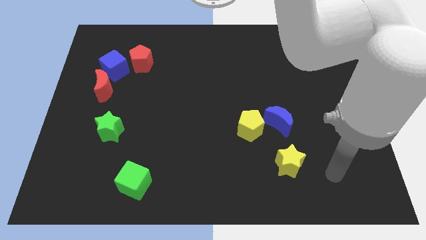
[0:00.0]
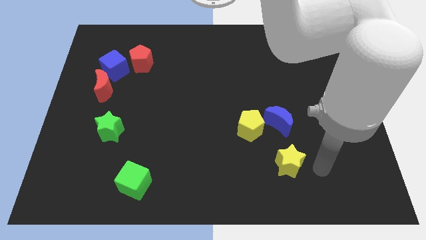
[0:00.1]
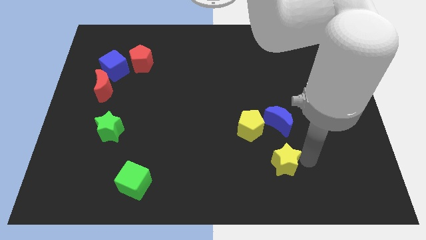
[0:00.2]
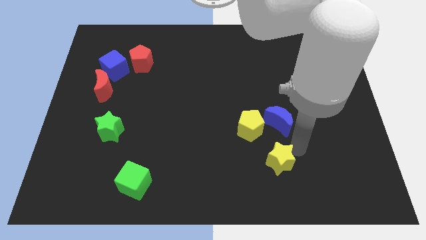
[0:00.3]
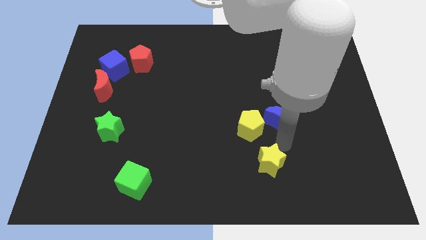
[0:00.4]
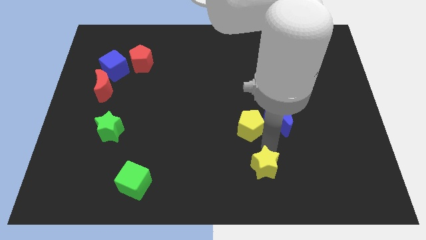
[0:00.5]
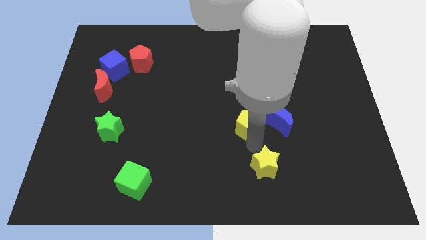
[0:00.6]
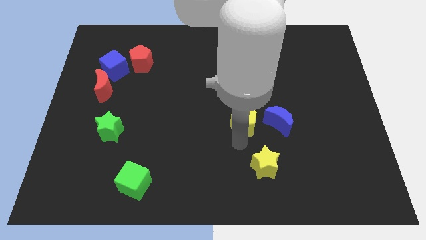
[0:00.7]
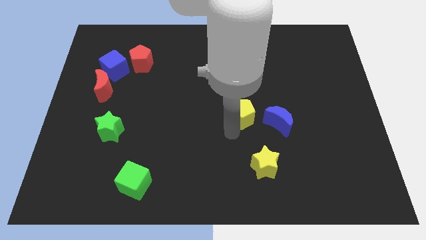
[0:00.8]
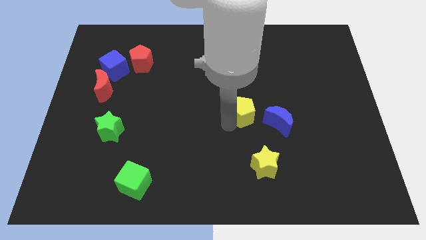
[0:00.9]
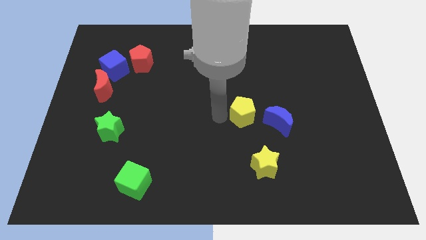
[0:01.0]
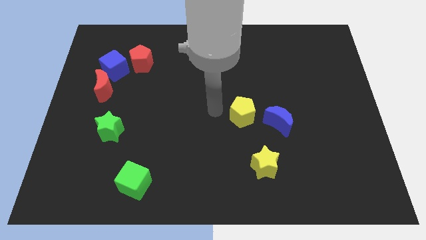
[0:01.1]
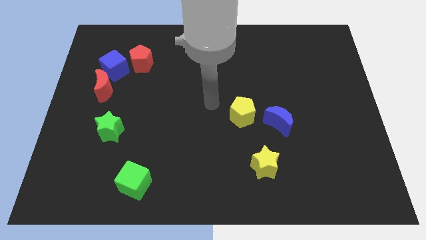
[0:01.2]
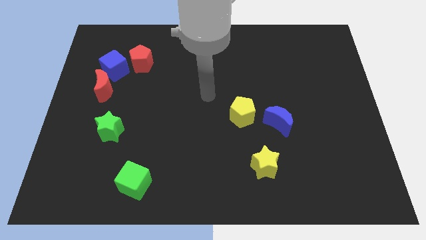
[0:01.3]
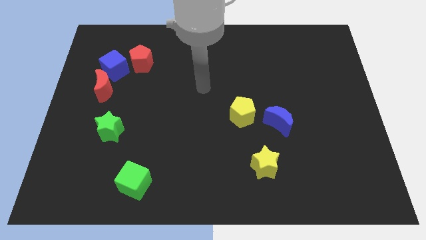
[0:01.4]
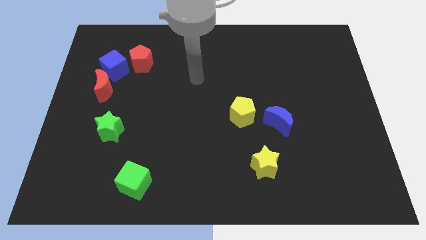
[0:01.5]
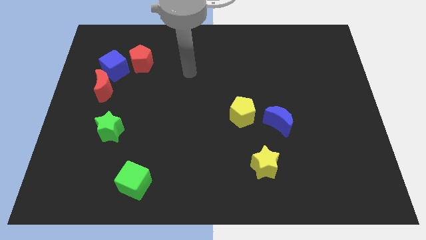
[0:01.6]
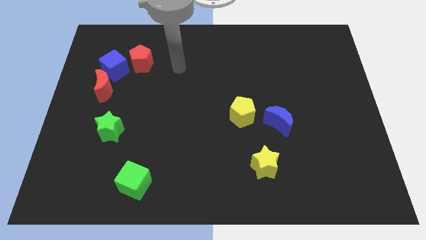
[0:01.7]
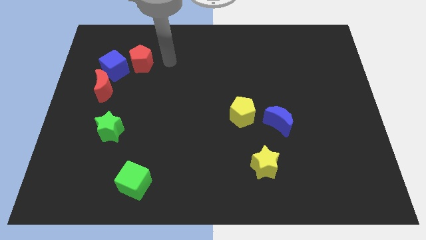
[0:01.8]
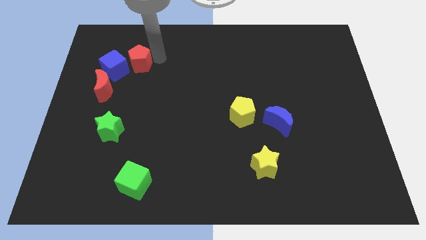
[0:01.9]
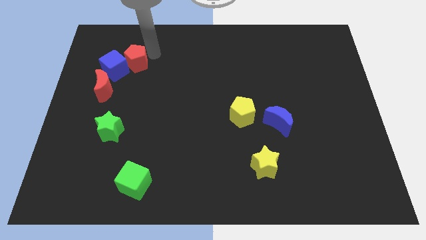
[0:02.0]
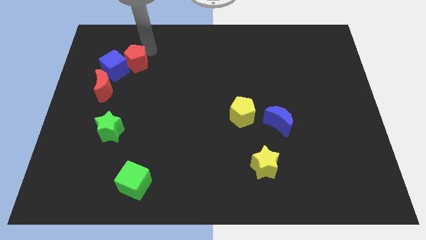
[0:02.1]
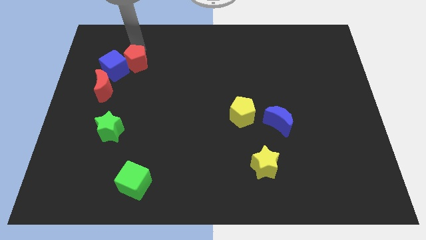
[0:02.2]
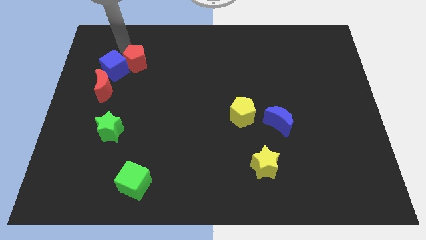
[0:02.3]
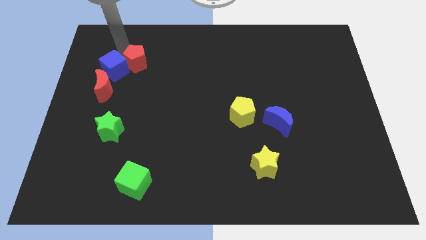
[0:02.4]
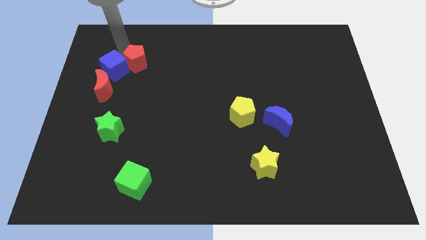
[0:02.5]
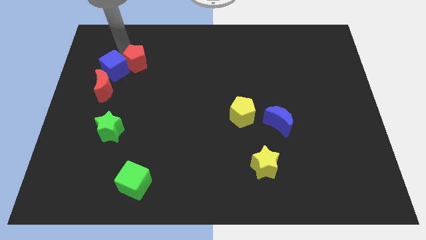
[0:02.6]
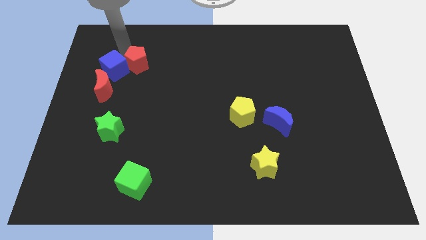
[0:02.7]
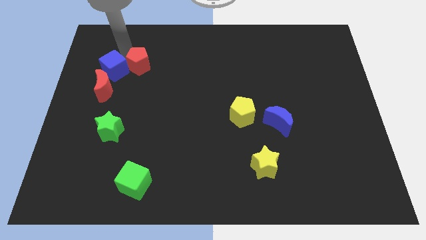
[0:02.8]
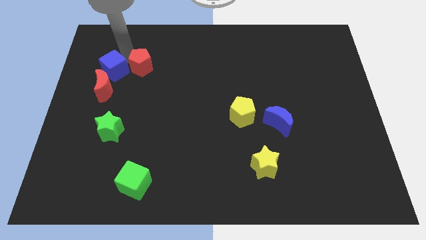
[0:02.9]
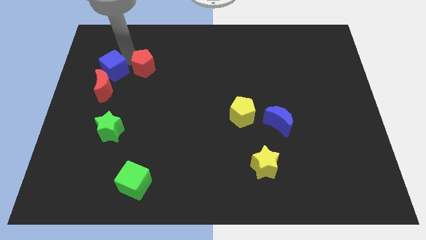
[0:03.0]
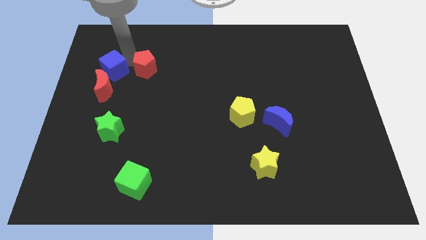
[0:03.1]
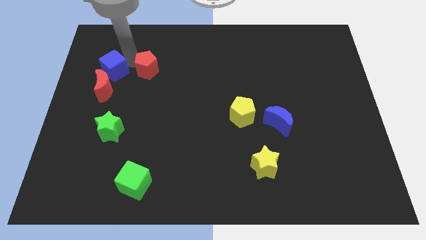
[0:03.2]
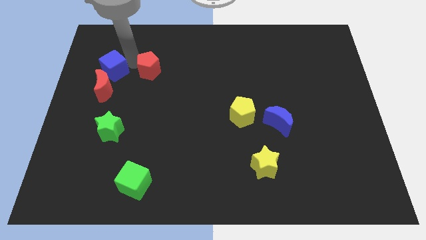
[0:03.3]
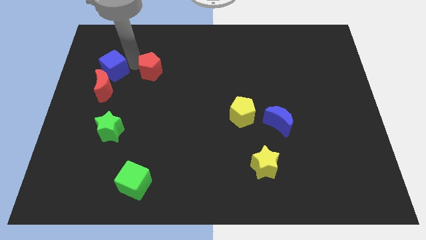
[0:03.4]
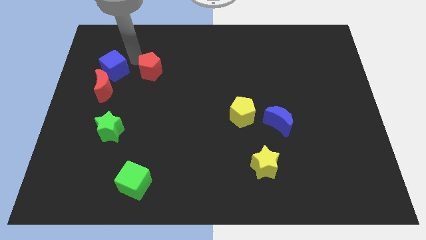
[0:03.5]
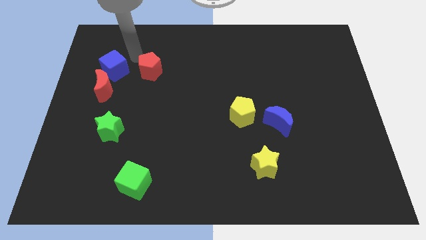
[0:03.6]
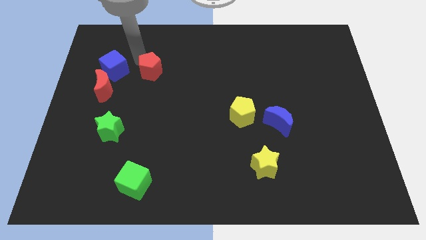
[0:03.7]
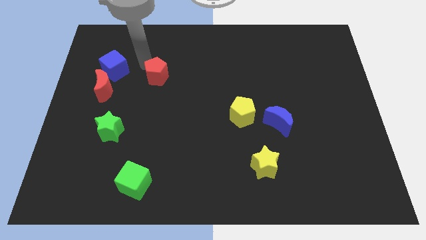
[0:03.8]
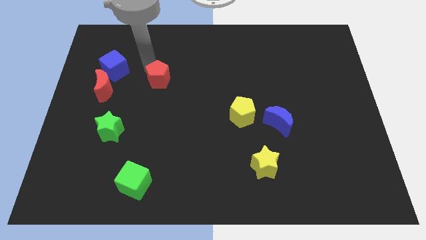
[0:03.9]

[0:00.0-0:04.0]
slightly move the red pentagon downwards and to the right diagonally

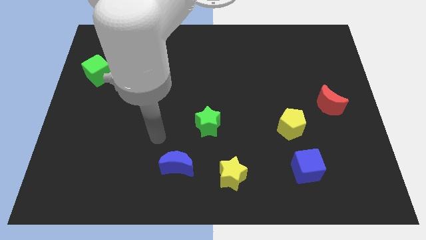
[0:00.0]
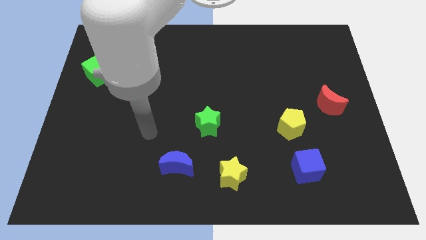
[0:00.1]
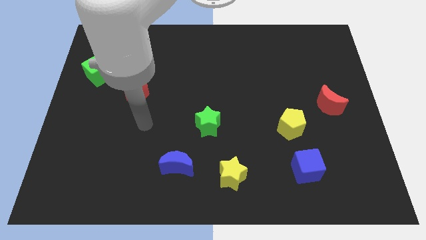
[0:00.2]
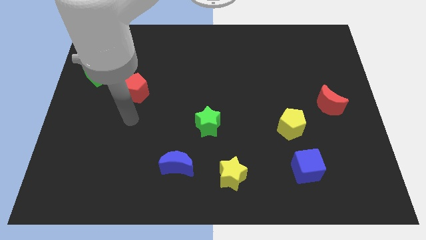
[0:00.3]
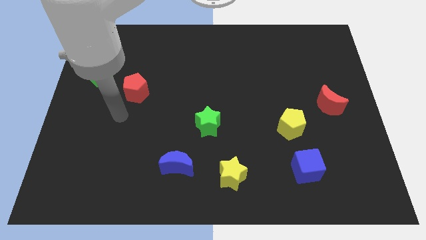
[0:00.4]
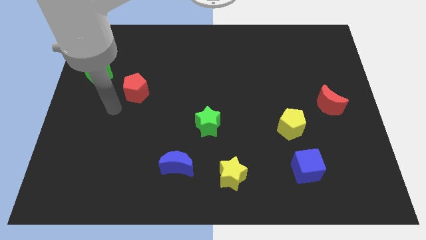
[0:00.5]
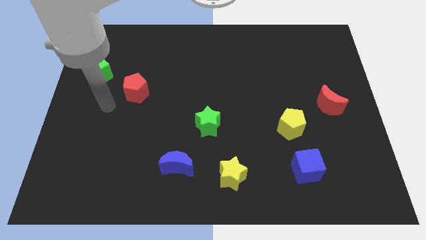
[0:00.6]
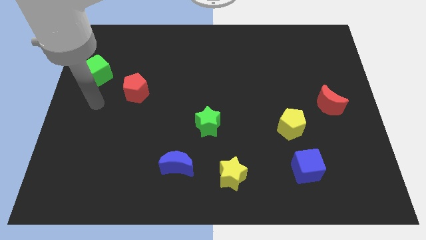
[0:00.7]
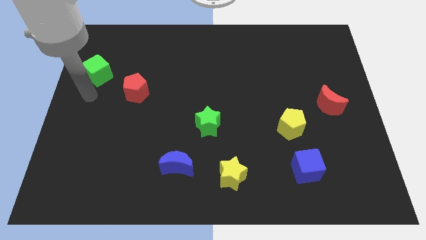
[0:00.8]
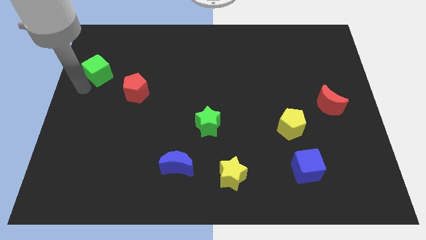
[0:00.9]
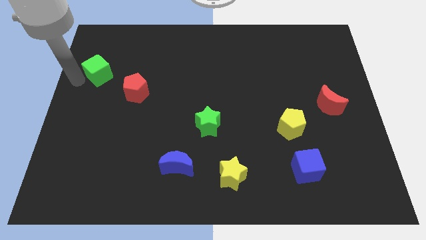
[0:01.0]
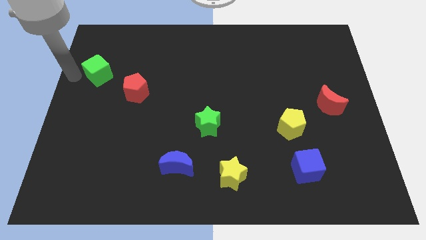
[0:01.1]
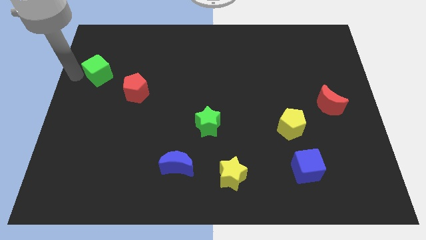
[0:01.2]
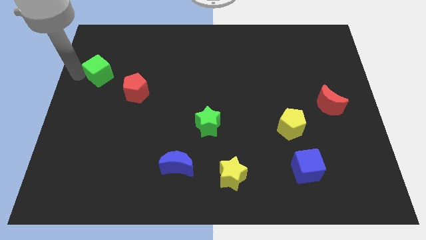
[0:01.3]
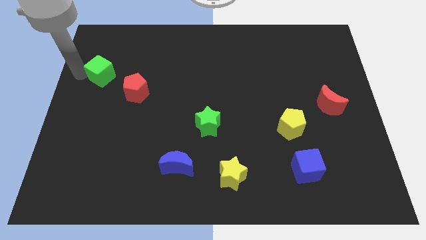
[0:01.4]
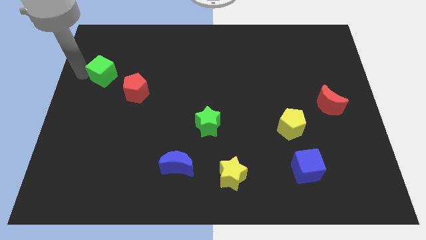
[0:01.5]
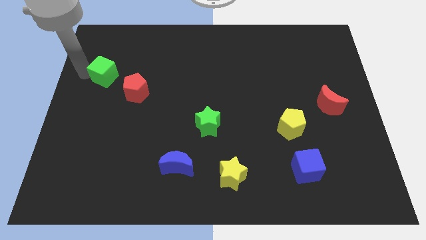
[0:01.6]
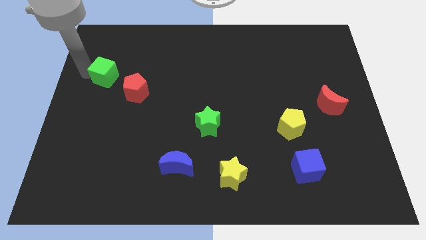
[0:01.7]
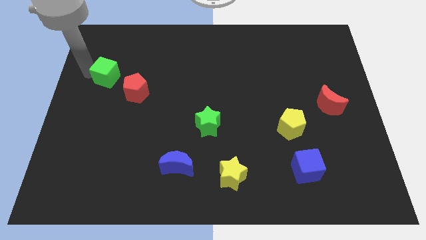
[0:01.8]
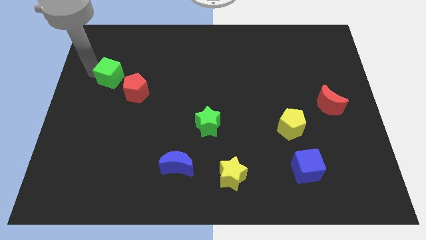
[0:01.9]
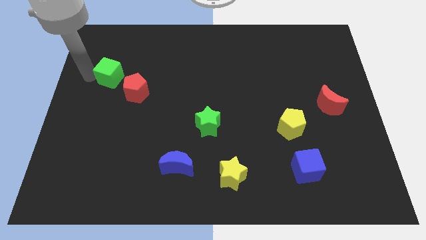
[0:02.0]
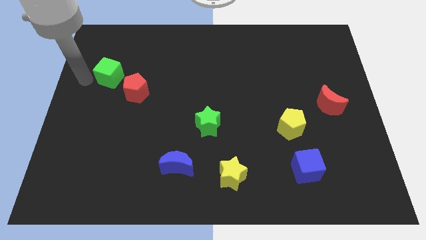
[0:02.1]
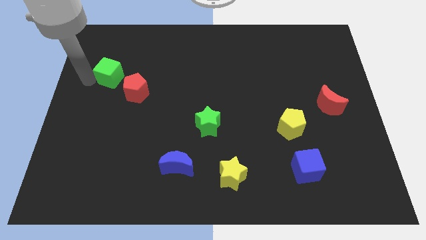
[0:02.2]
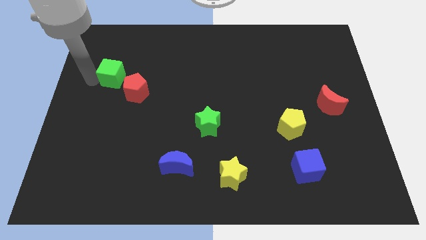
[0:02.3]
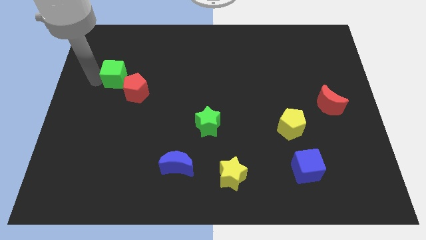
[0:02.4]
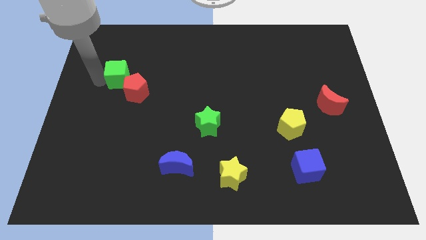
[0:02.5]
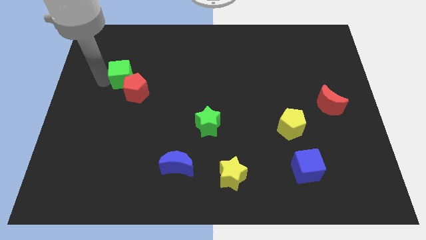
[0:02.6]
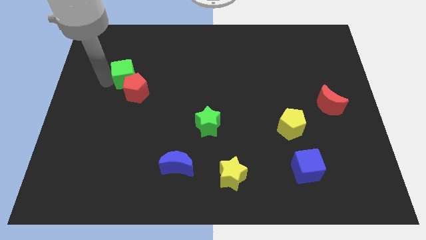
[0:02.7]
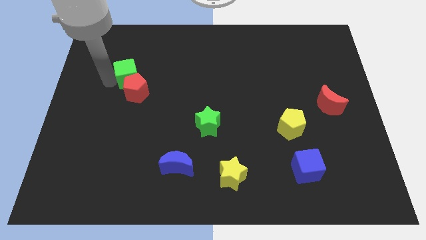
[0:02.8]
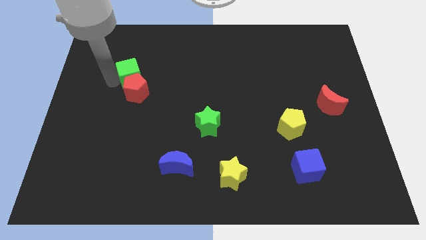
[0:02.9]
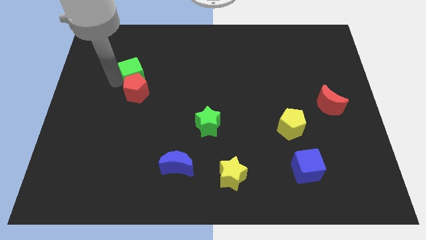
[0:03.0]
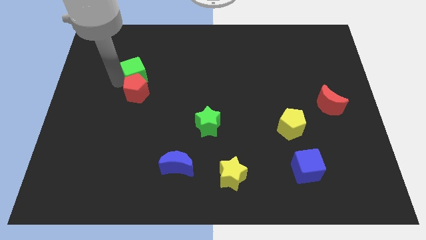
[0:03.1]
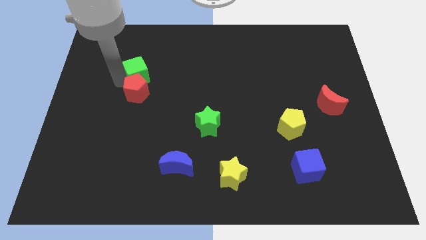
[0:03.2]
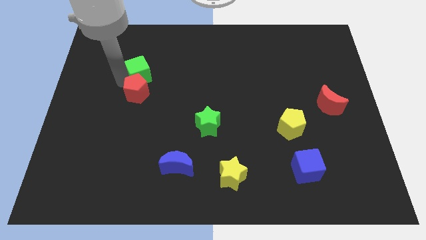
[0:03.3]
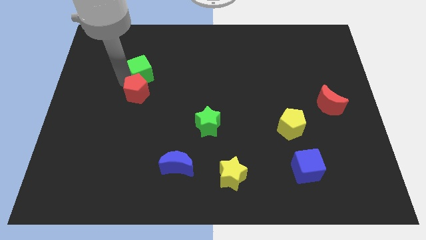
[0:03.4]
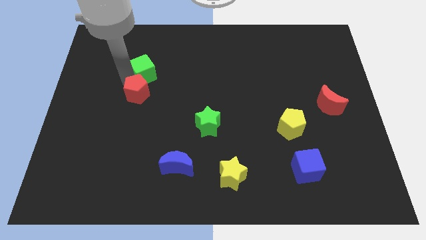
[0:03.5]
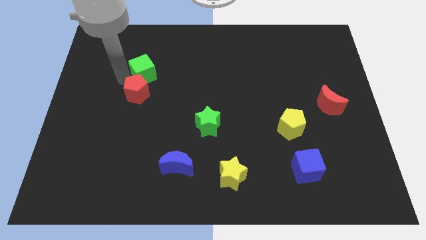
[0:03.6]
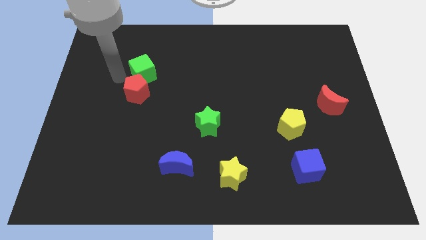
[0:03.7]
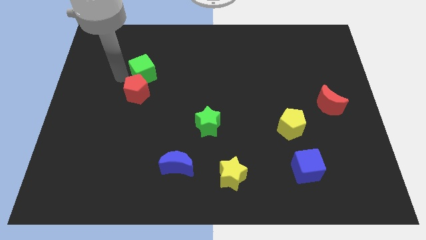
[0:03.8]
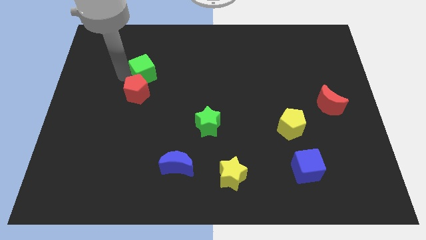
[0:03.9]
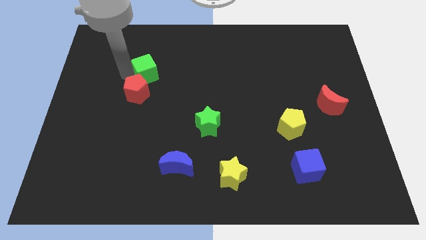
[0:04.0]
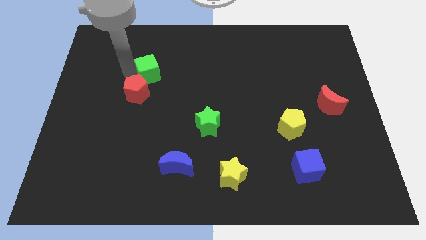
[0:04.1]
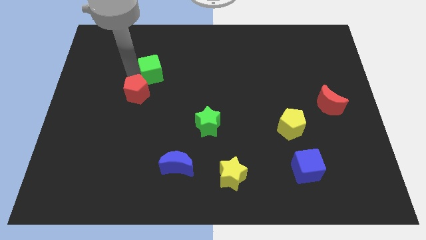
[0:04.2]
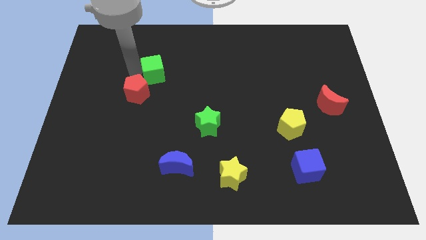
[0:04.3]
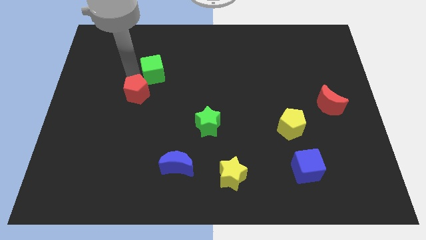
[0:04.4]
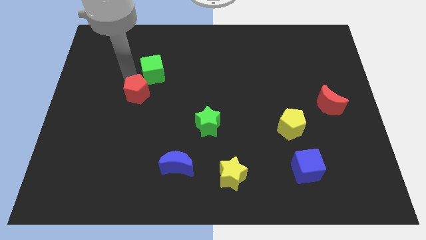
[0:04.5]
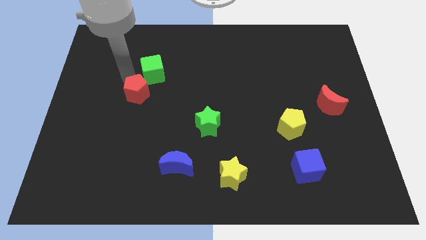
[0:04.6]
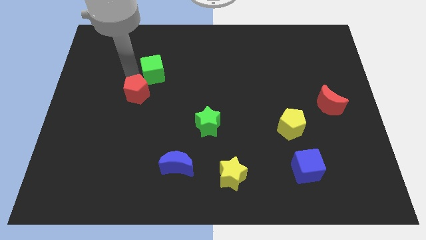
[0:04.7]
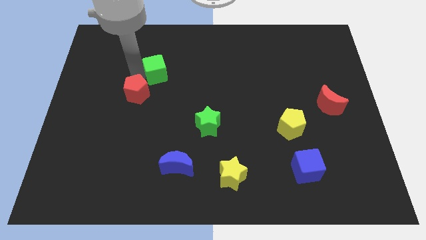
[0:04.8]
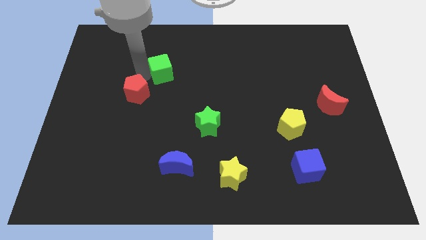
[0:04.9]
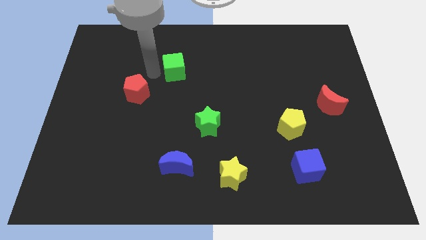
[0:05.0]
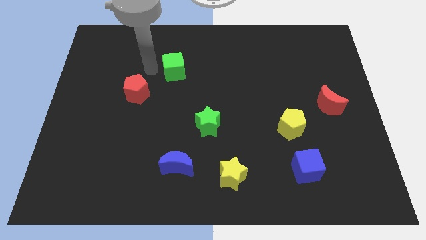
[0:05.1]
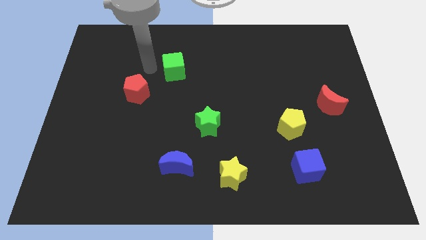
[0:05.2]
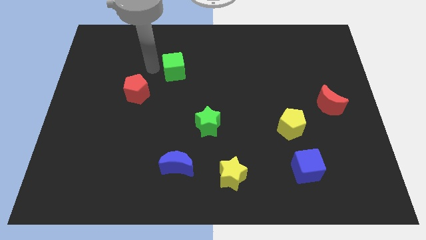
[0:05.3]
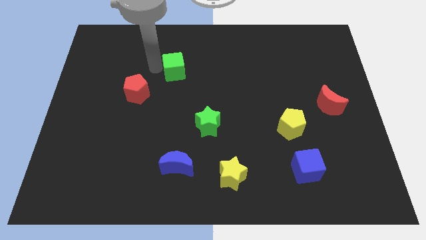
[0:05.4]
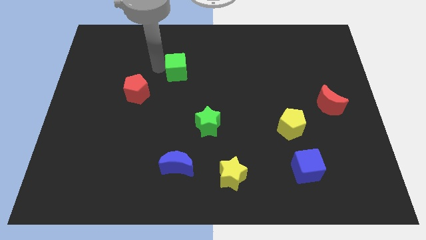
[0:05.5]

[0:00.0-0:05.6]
slide the green cube right
